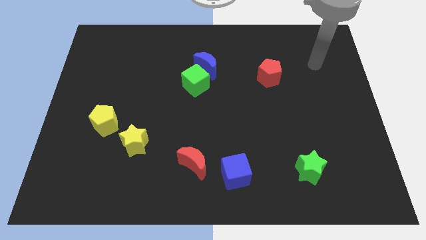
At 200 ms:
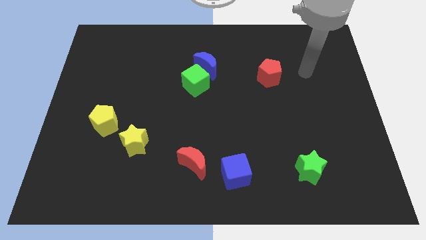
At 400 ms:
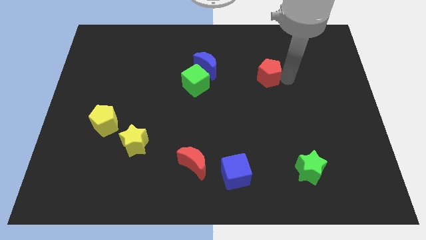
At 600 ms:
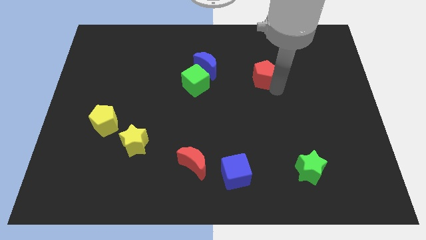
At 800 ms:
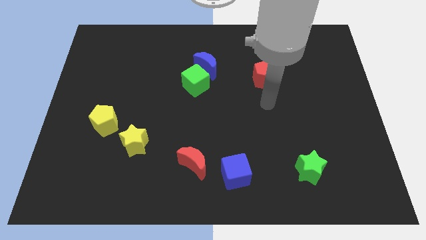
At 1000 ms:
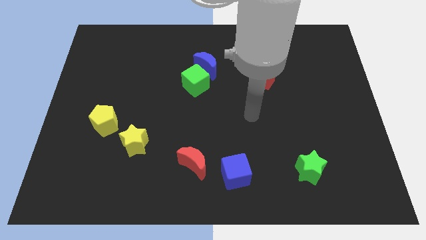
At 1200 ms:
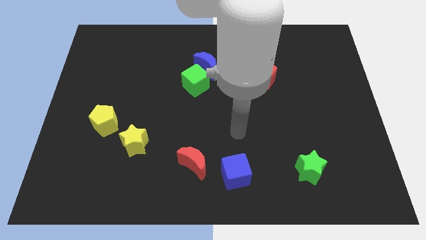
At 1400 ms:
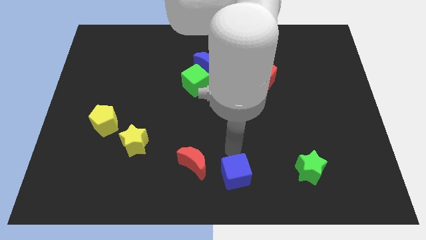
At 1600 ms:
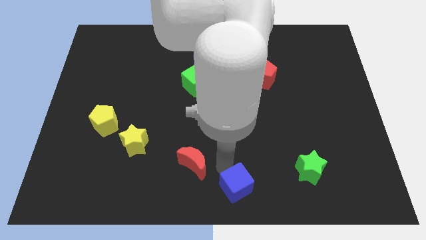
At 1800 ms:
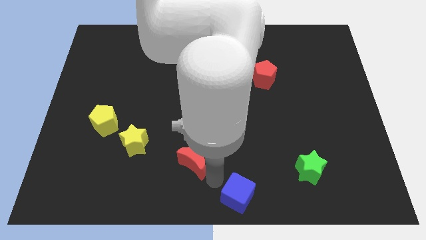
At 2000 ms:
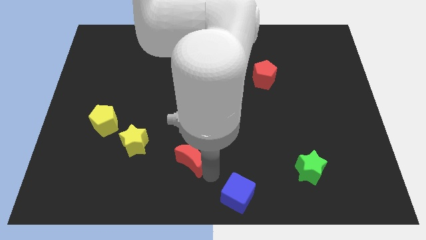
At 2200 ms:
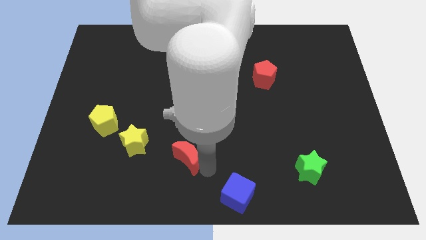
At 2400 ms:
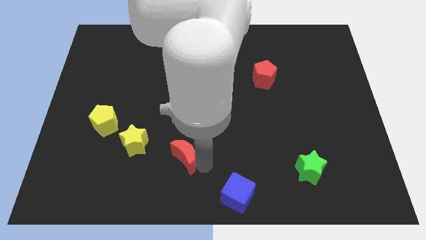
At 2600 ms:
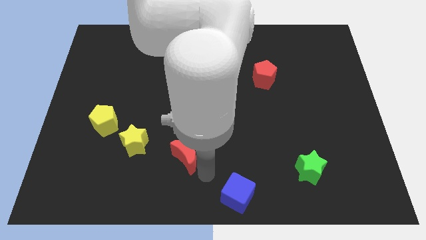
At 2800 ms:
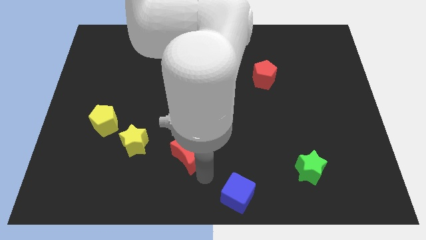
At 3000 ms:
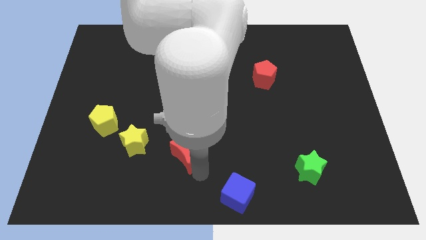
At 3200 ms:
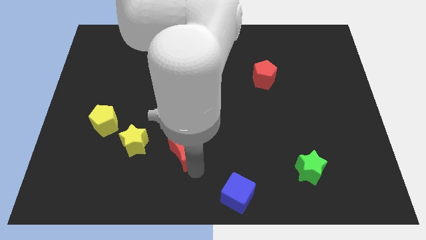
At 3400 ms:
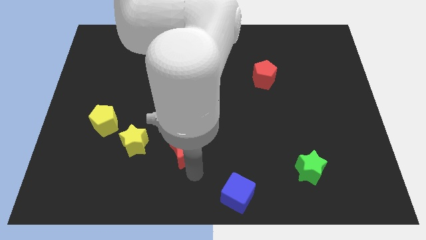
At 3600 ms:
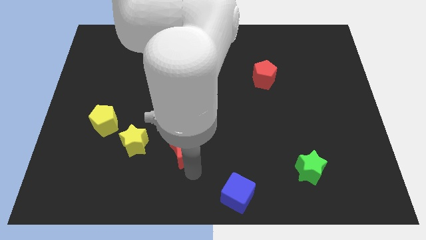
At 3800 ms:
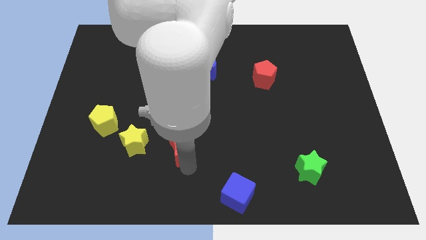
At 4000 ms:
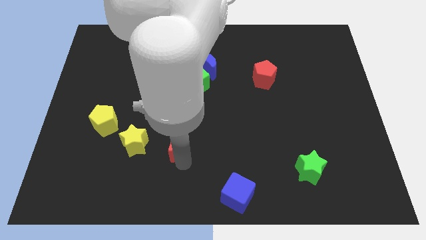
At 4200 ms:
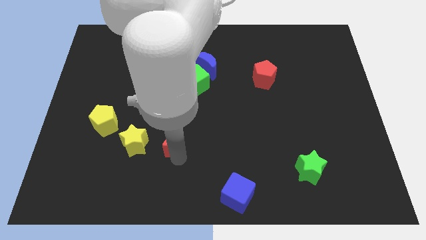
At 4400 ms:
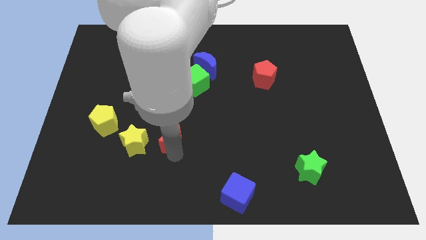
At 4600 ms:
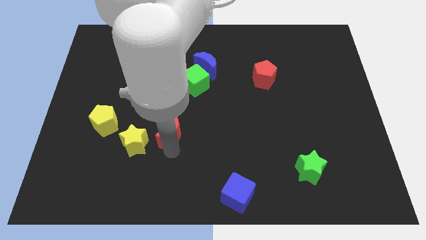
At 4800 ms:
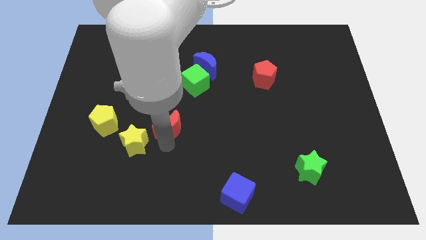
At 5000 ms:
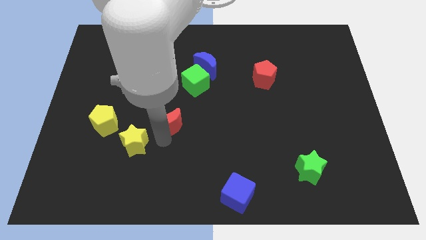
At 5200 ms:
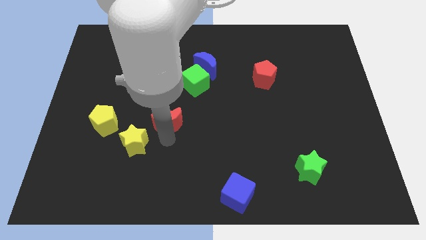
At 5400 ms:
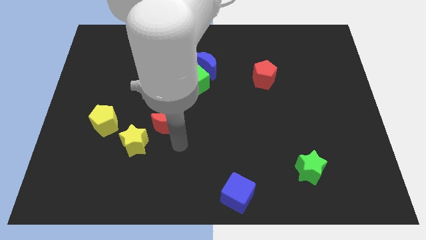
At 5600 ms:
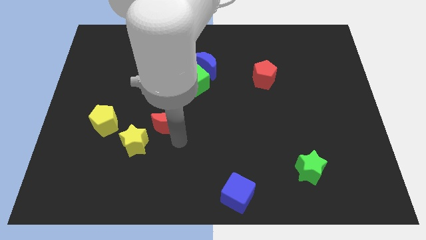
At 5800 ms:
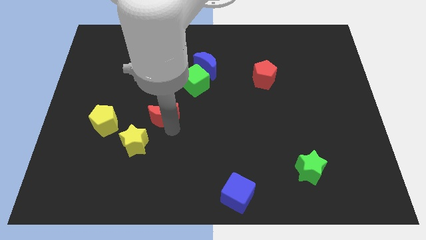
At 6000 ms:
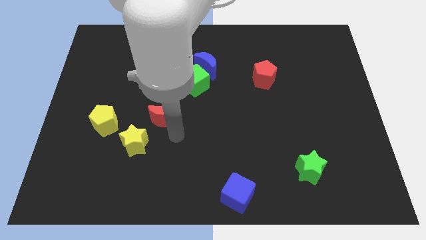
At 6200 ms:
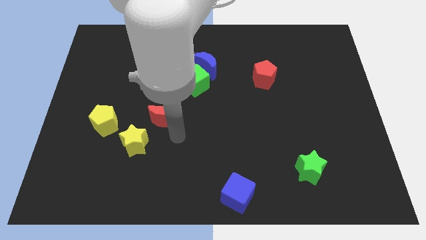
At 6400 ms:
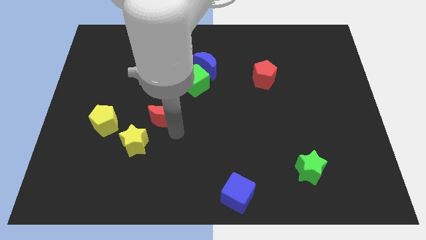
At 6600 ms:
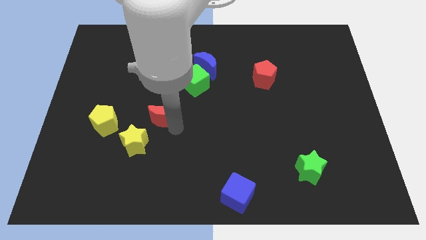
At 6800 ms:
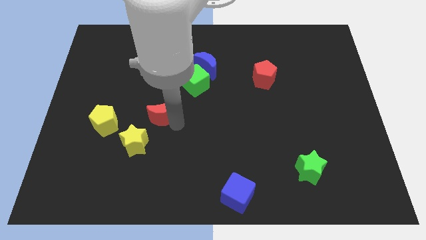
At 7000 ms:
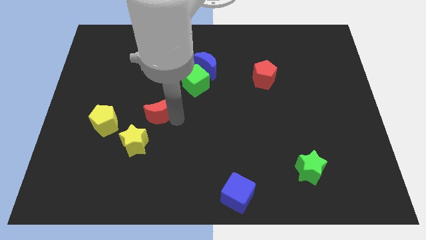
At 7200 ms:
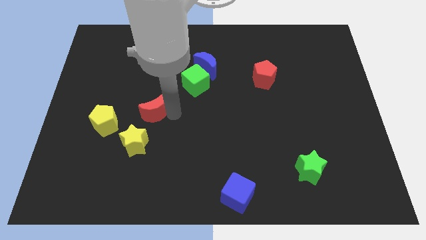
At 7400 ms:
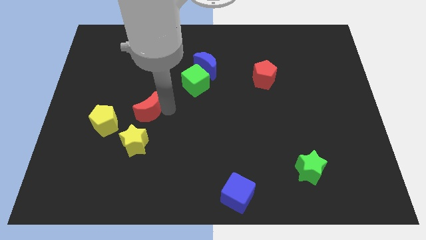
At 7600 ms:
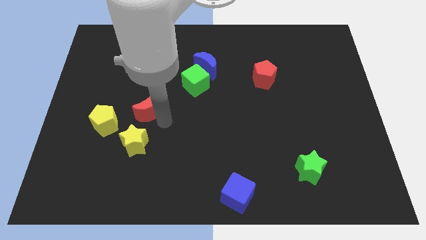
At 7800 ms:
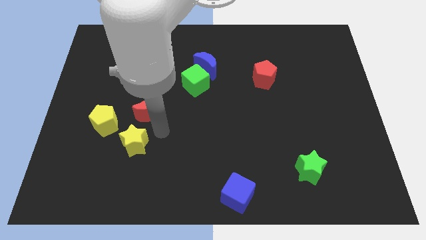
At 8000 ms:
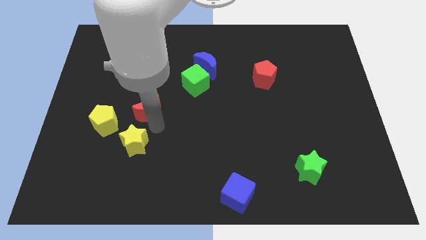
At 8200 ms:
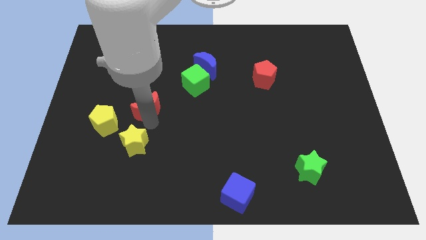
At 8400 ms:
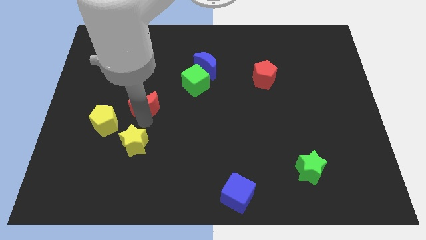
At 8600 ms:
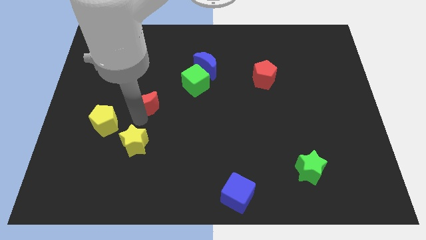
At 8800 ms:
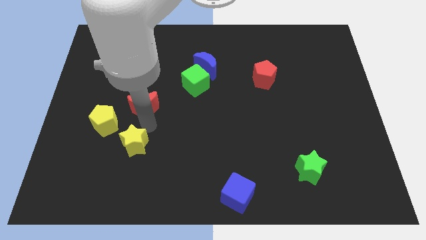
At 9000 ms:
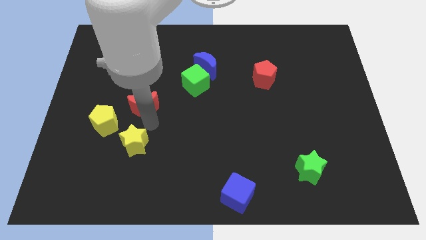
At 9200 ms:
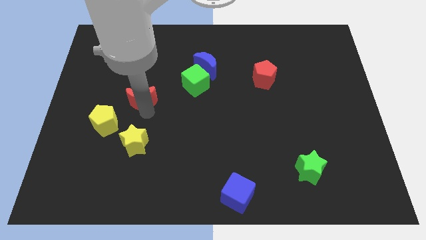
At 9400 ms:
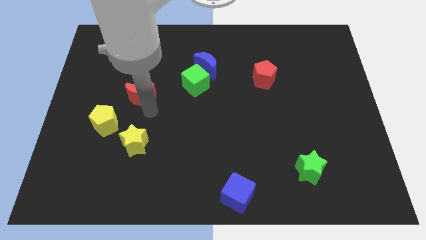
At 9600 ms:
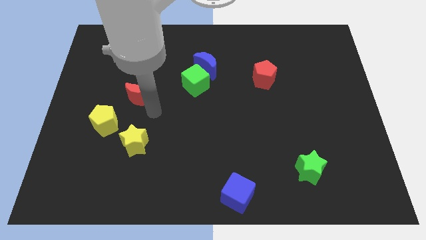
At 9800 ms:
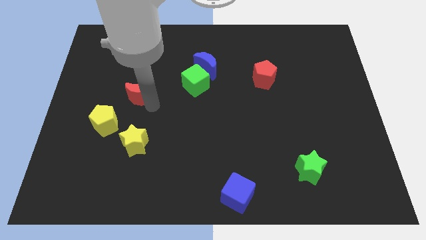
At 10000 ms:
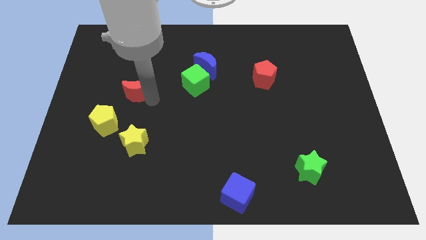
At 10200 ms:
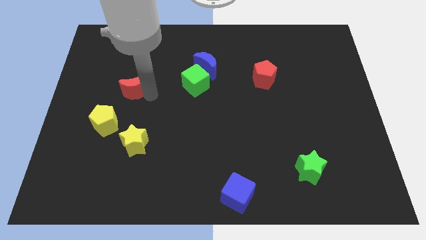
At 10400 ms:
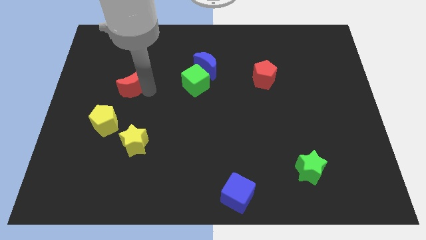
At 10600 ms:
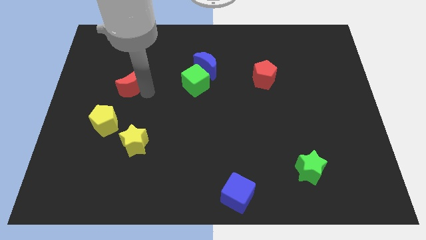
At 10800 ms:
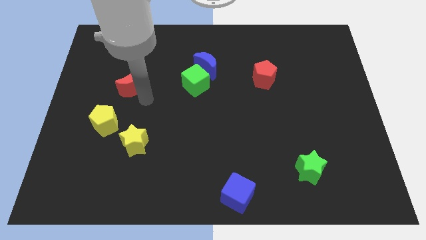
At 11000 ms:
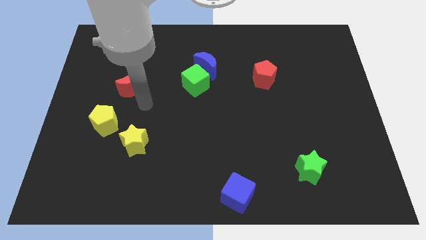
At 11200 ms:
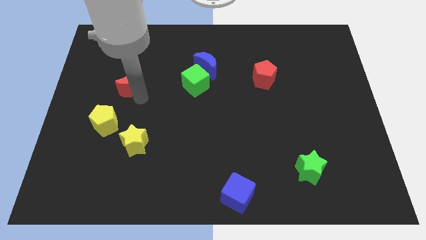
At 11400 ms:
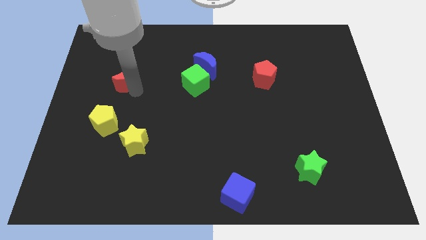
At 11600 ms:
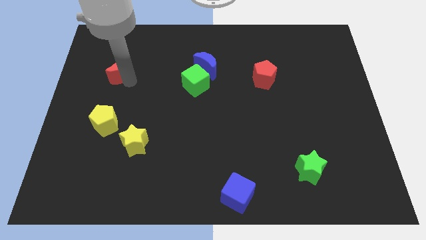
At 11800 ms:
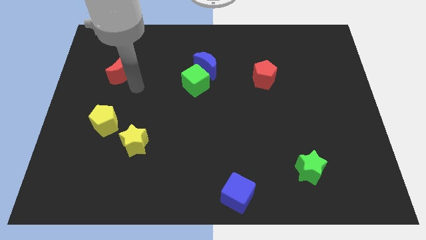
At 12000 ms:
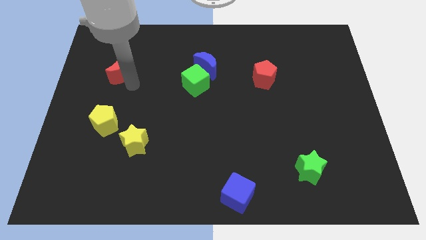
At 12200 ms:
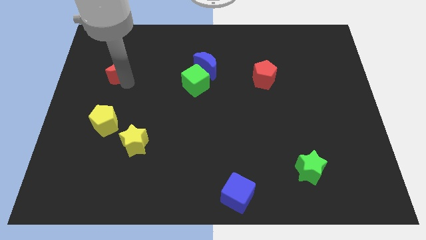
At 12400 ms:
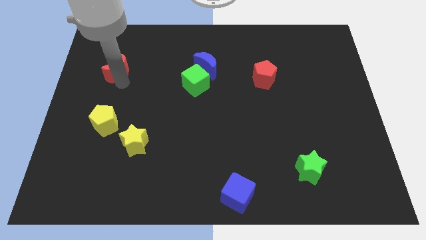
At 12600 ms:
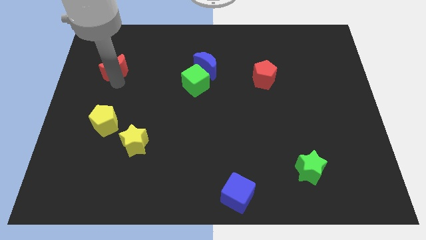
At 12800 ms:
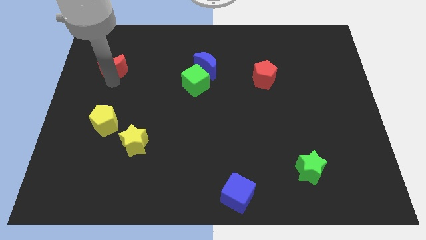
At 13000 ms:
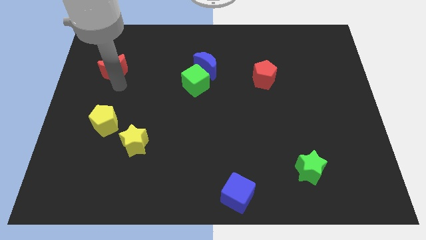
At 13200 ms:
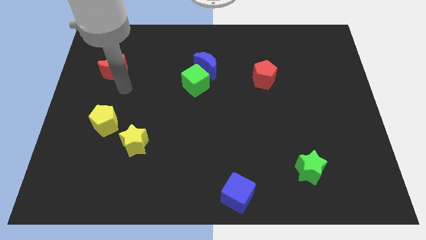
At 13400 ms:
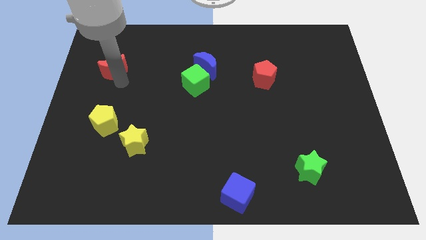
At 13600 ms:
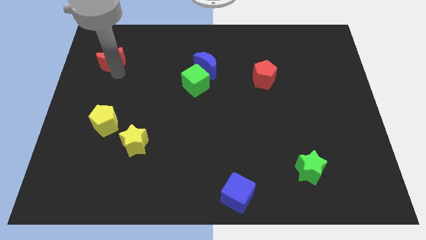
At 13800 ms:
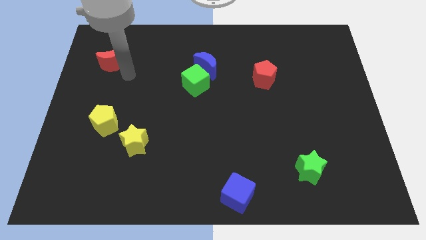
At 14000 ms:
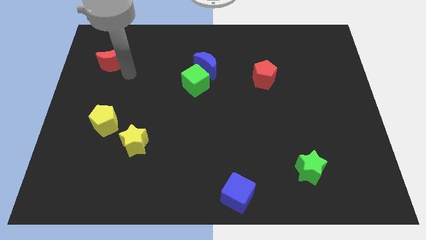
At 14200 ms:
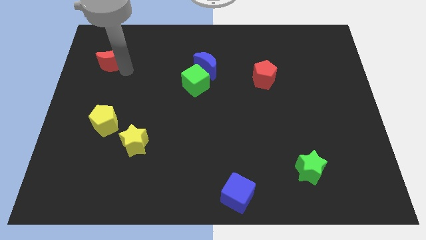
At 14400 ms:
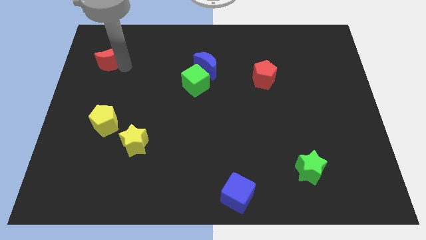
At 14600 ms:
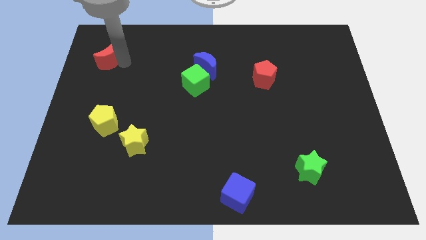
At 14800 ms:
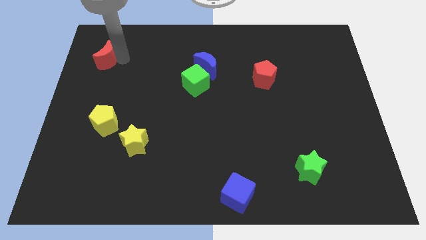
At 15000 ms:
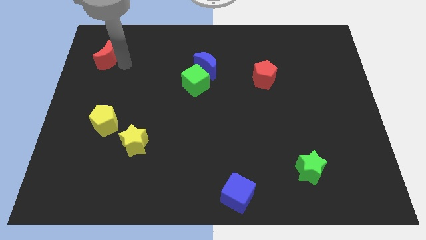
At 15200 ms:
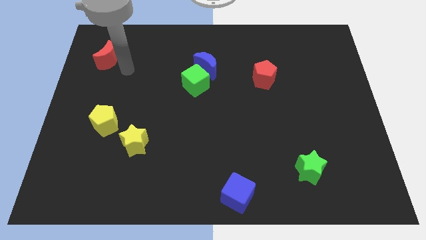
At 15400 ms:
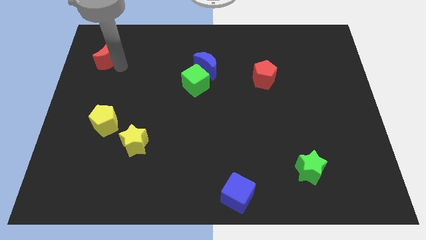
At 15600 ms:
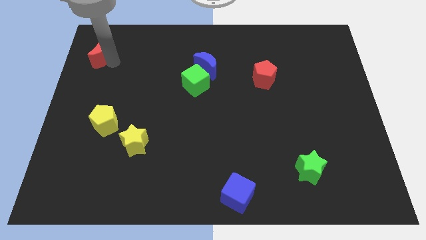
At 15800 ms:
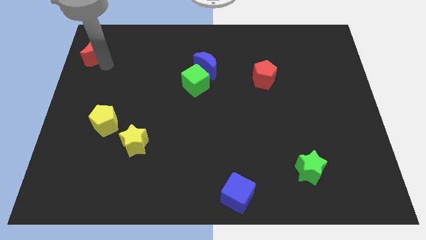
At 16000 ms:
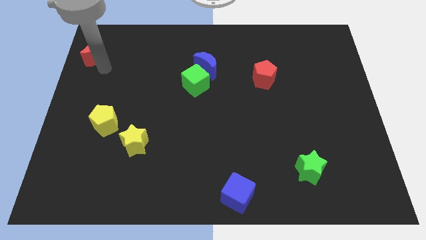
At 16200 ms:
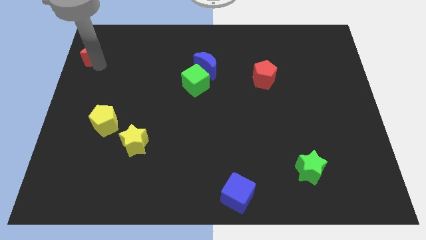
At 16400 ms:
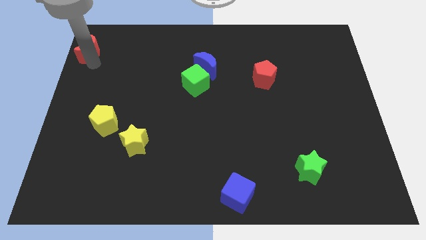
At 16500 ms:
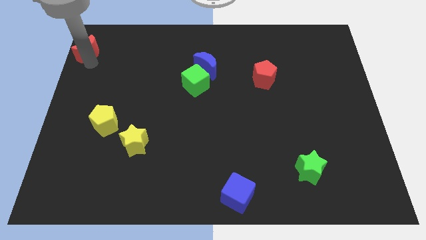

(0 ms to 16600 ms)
slide the red moon to the top left corner

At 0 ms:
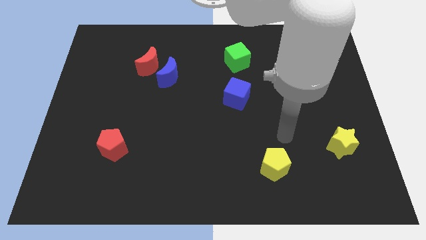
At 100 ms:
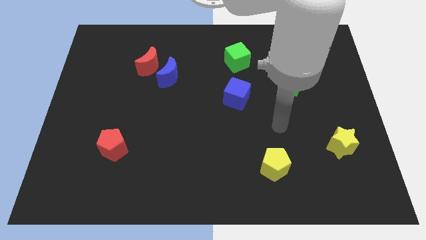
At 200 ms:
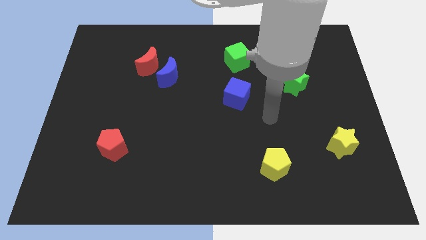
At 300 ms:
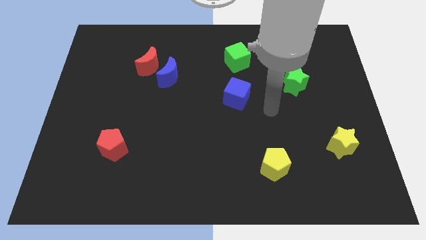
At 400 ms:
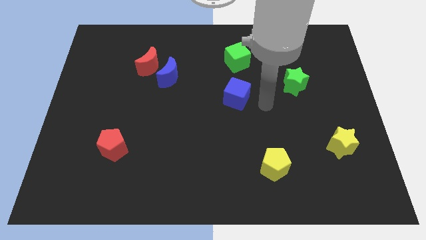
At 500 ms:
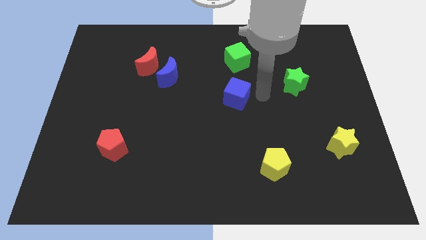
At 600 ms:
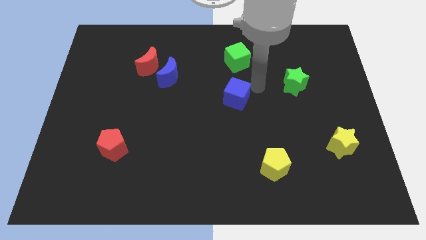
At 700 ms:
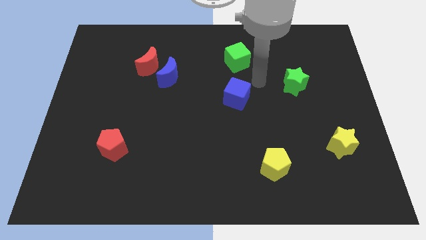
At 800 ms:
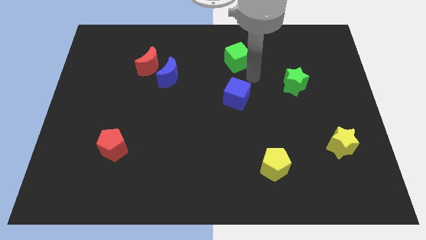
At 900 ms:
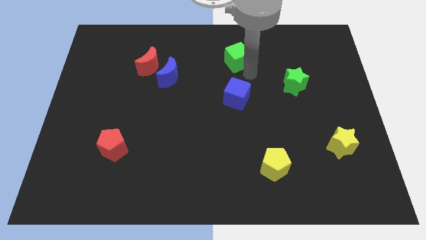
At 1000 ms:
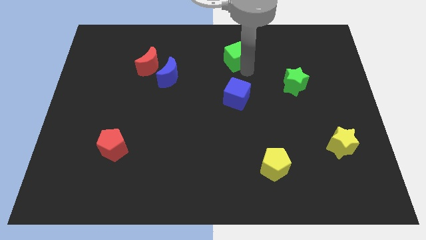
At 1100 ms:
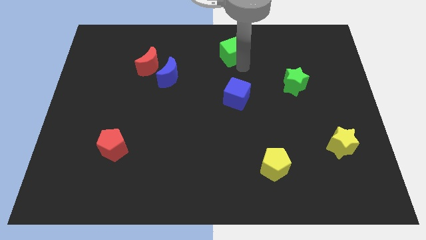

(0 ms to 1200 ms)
slide the green cube to the top
